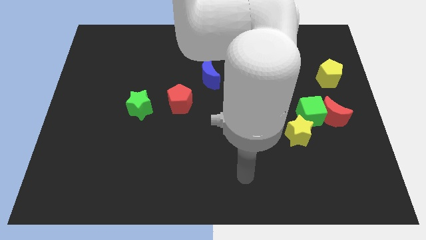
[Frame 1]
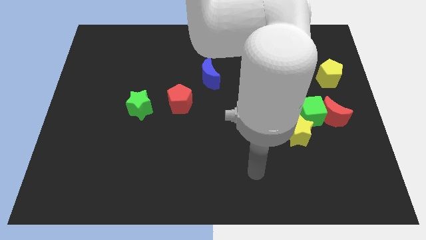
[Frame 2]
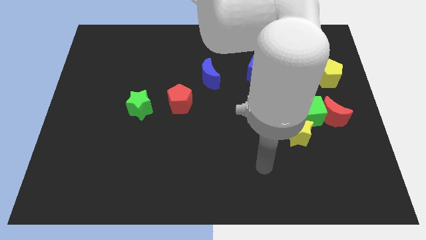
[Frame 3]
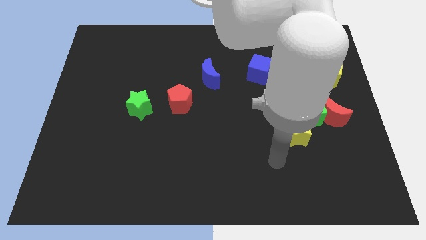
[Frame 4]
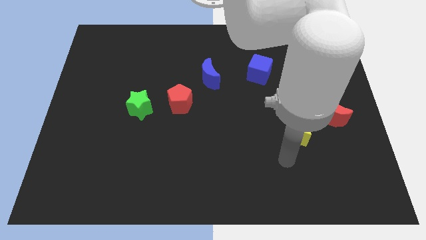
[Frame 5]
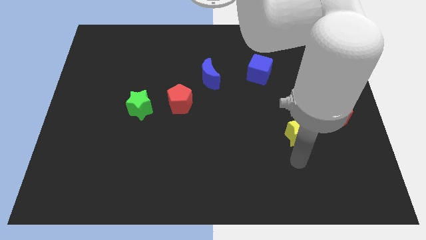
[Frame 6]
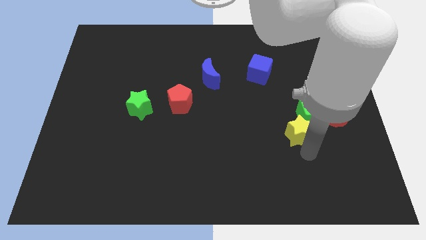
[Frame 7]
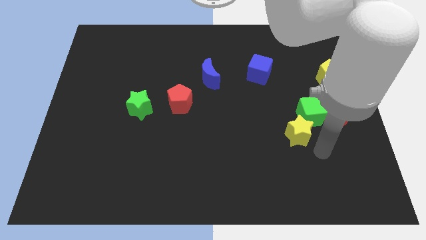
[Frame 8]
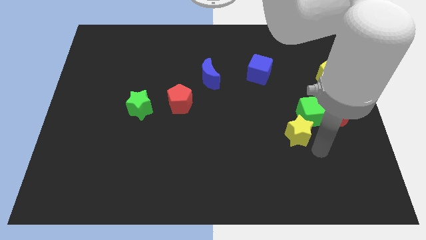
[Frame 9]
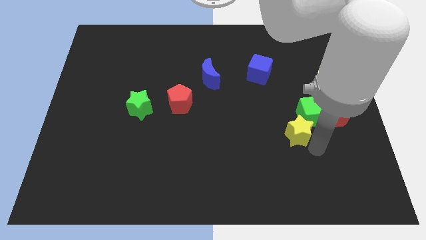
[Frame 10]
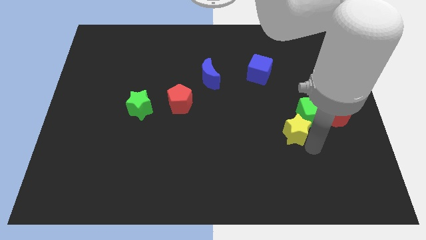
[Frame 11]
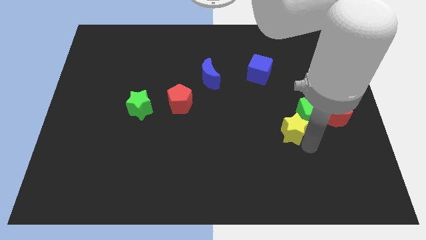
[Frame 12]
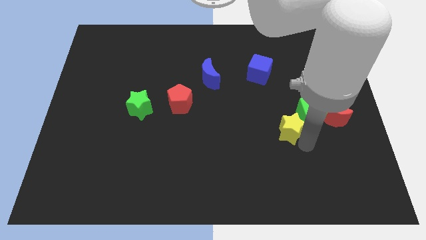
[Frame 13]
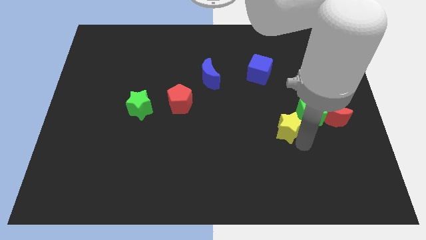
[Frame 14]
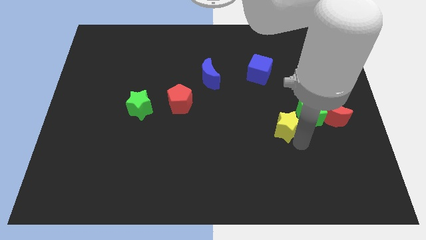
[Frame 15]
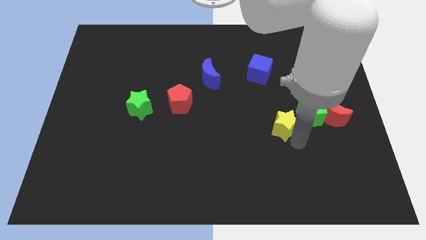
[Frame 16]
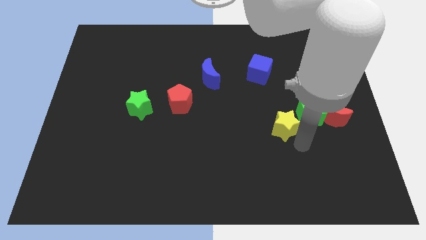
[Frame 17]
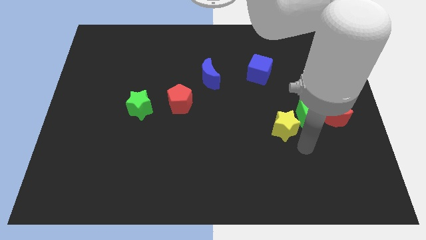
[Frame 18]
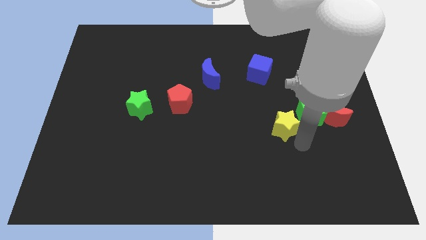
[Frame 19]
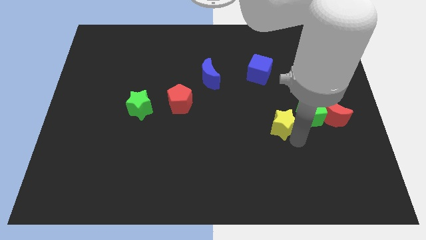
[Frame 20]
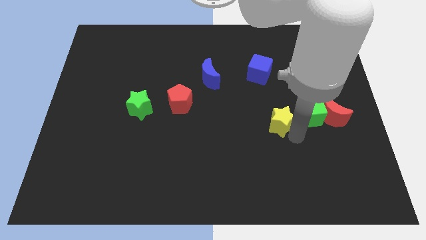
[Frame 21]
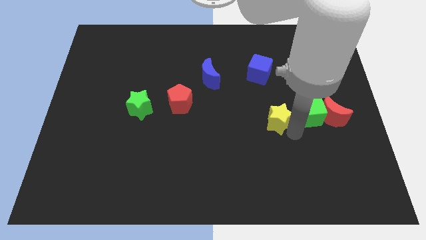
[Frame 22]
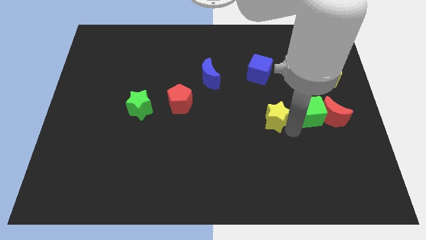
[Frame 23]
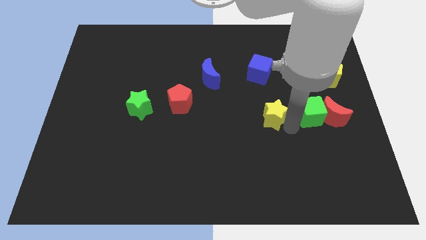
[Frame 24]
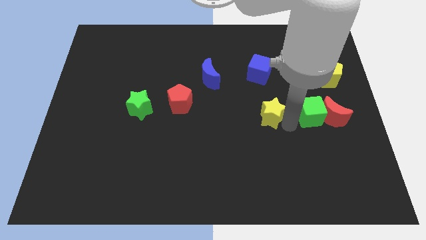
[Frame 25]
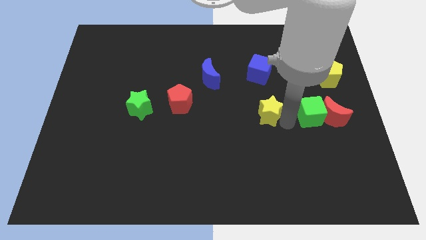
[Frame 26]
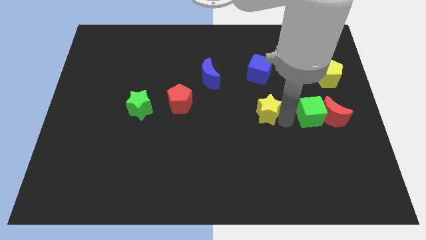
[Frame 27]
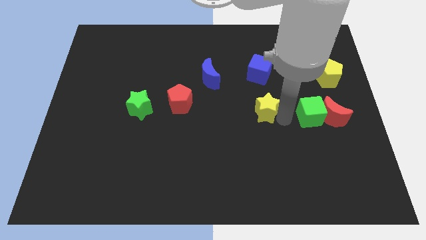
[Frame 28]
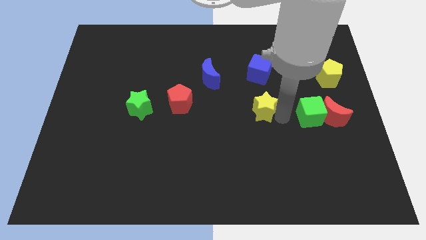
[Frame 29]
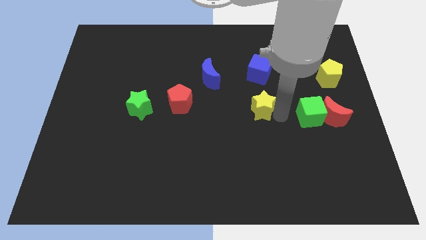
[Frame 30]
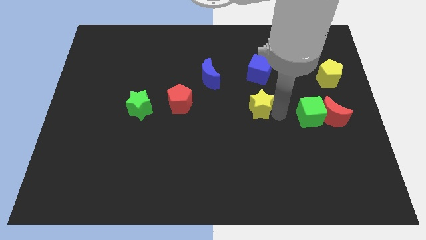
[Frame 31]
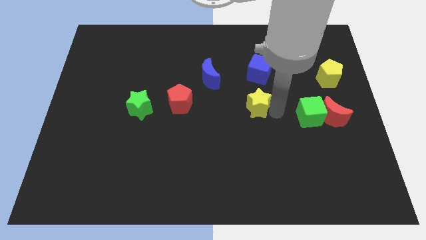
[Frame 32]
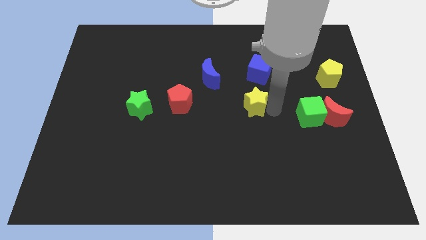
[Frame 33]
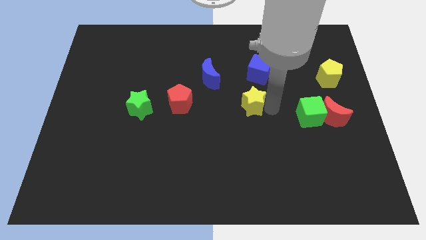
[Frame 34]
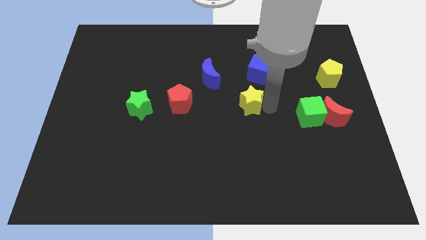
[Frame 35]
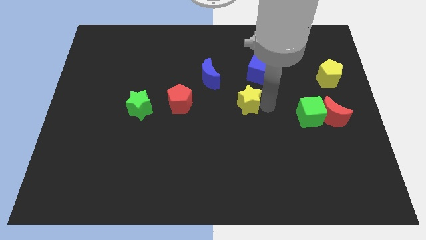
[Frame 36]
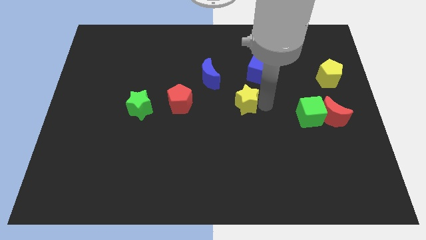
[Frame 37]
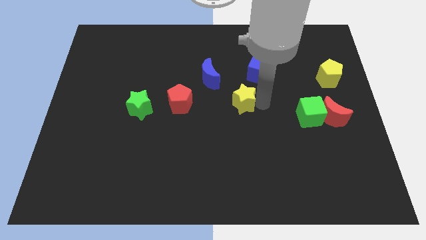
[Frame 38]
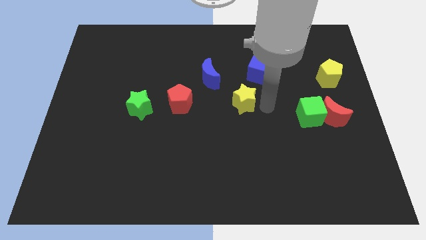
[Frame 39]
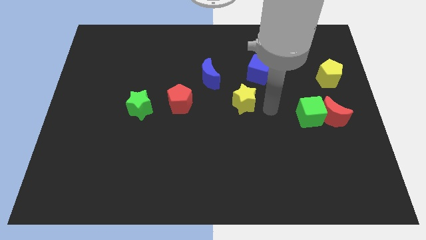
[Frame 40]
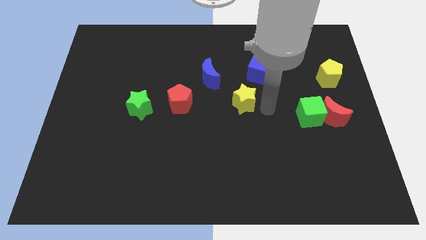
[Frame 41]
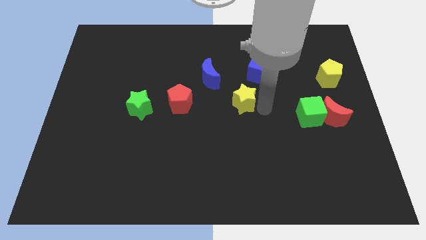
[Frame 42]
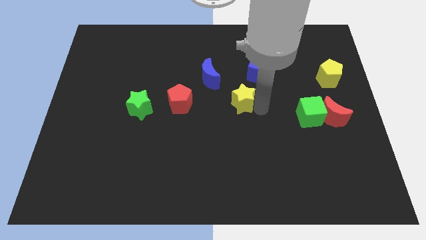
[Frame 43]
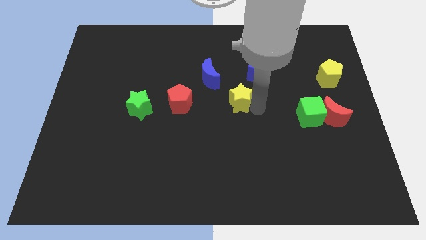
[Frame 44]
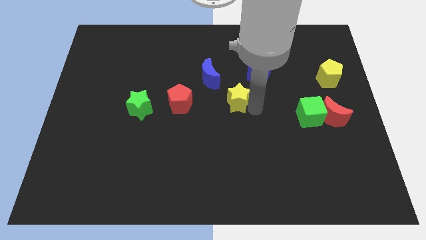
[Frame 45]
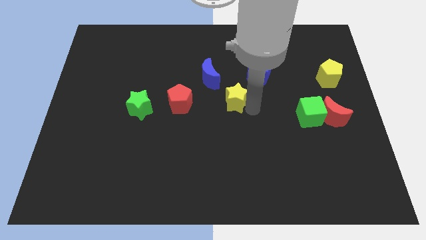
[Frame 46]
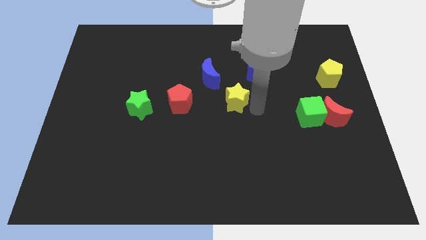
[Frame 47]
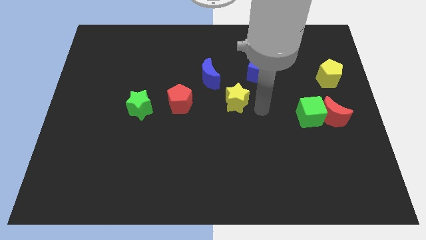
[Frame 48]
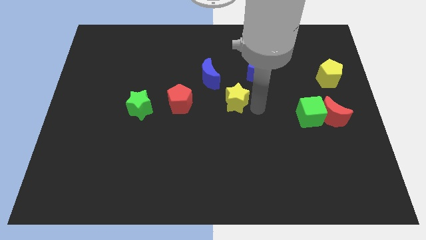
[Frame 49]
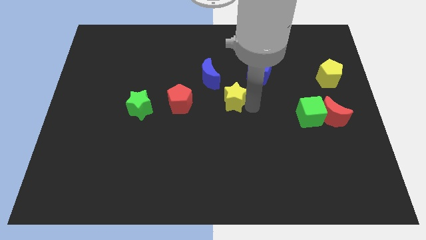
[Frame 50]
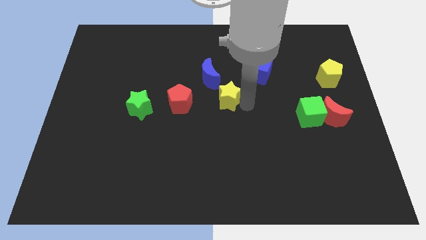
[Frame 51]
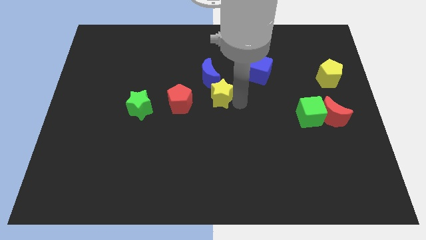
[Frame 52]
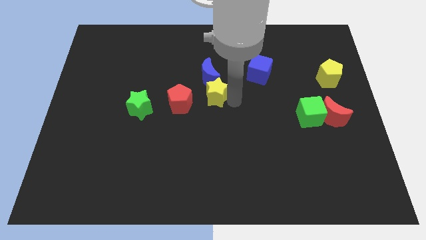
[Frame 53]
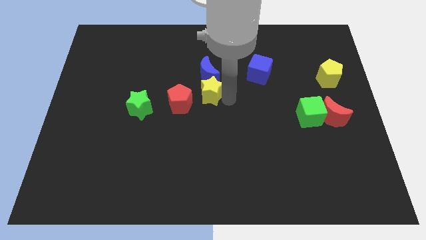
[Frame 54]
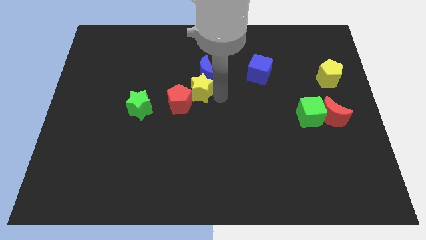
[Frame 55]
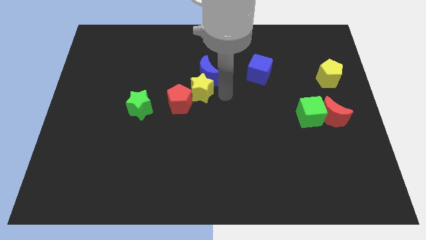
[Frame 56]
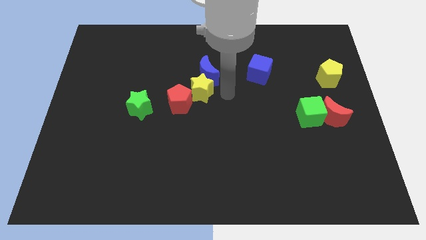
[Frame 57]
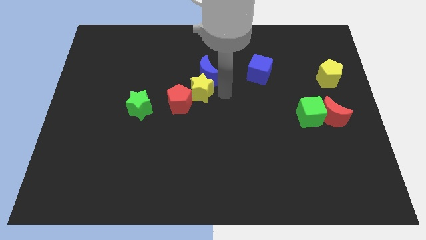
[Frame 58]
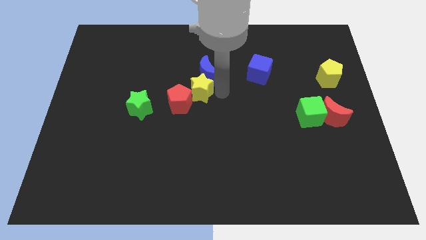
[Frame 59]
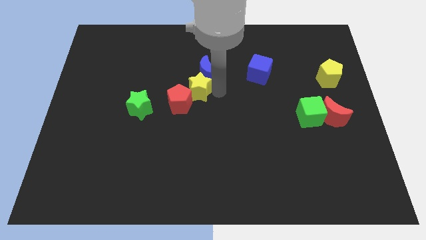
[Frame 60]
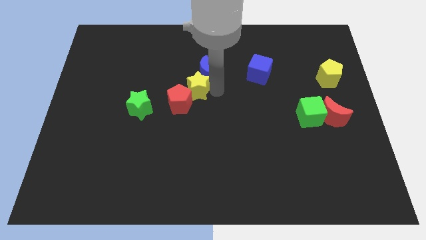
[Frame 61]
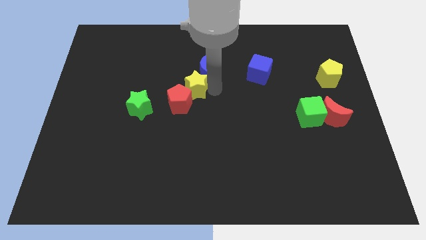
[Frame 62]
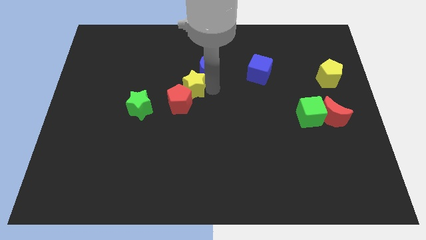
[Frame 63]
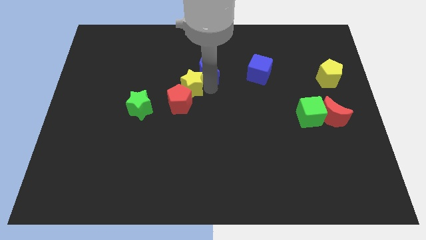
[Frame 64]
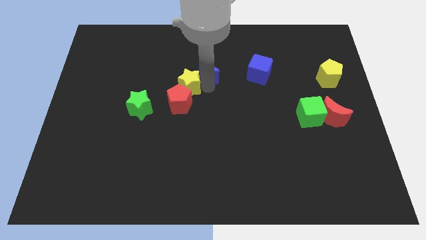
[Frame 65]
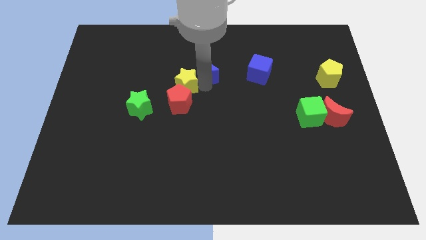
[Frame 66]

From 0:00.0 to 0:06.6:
slide the yellow star diagonally up and to the right of the green star

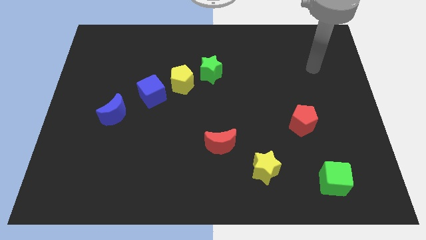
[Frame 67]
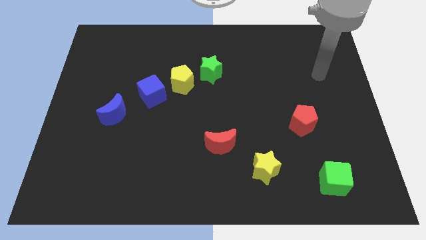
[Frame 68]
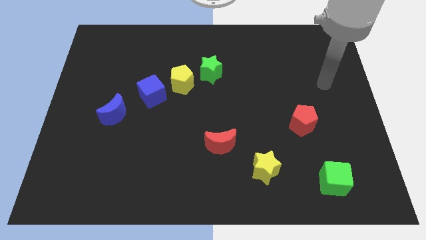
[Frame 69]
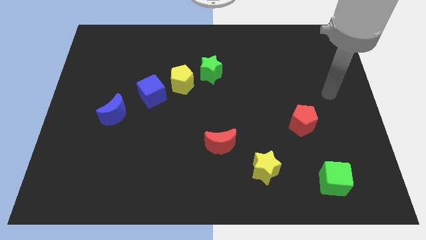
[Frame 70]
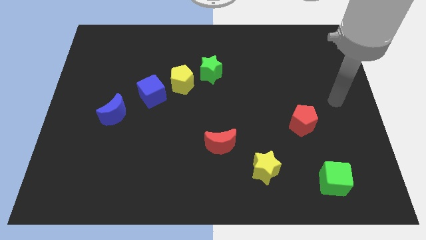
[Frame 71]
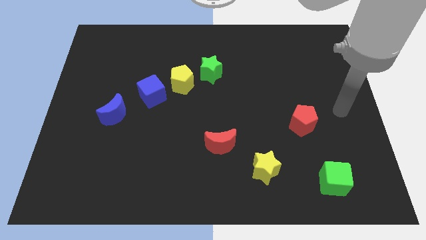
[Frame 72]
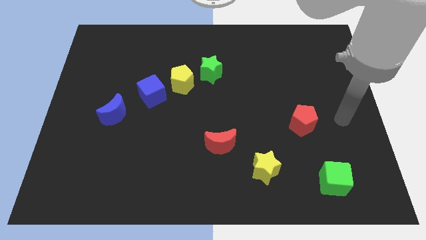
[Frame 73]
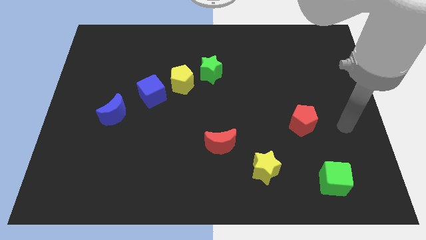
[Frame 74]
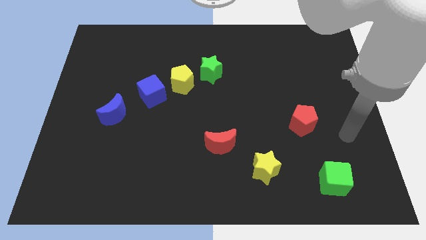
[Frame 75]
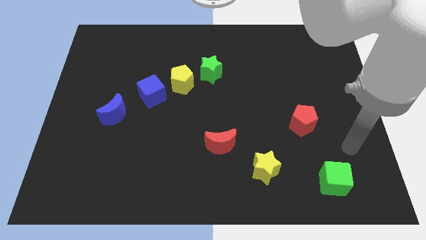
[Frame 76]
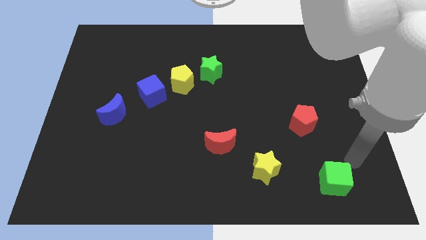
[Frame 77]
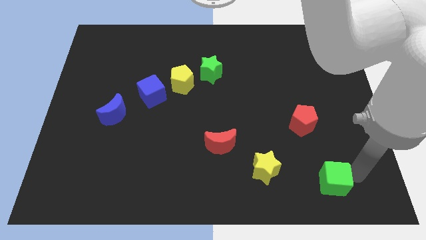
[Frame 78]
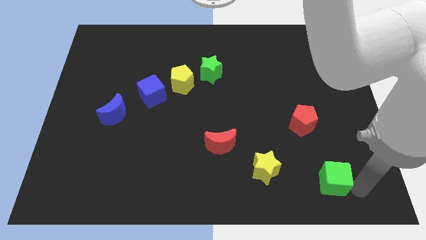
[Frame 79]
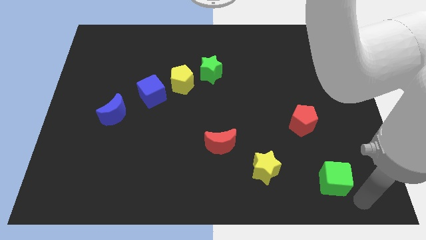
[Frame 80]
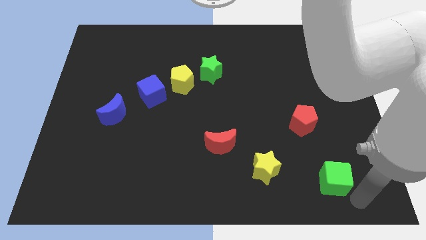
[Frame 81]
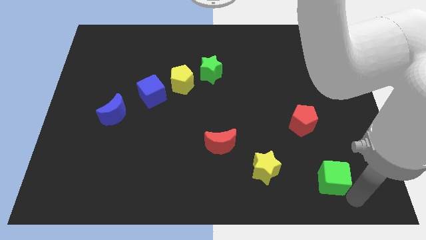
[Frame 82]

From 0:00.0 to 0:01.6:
move the green cube below the red pentagon

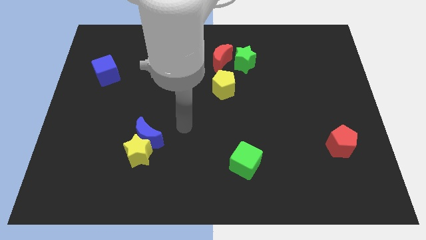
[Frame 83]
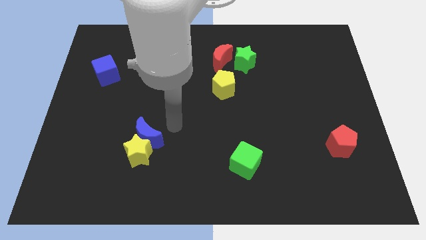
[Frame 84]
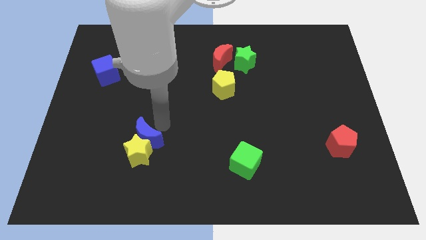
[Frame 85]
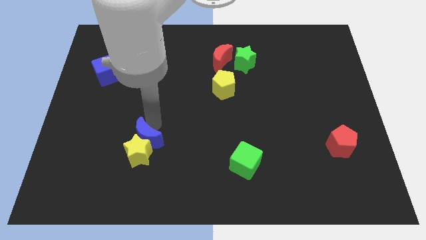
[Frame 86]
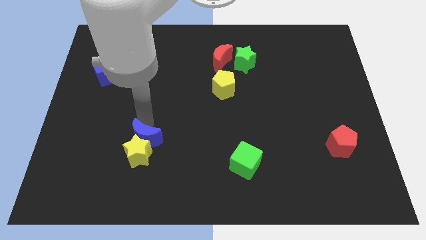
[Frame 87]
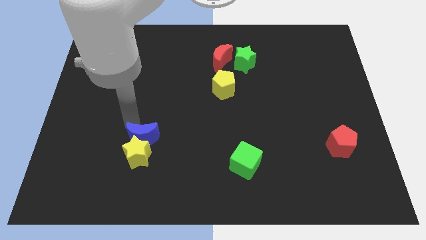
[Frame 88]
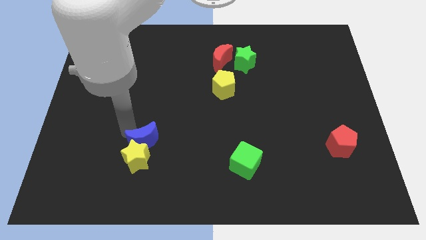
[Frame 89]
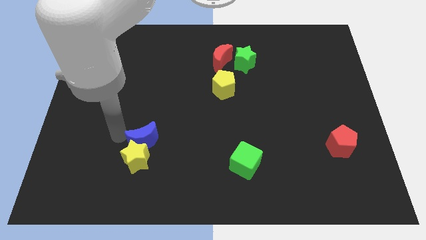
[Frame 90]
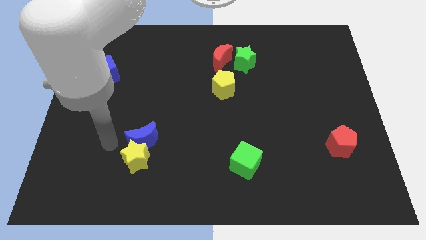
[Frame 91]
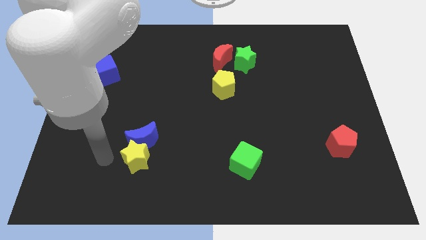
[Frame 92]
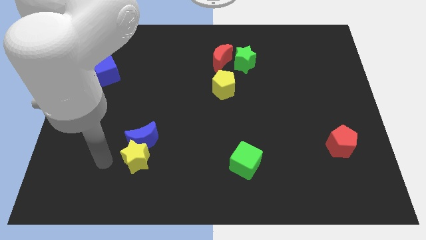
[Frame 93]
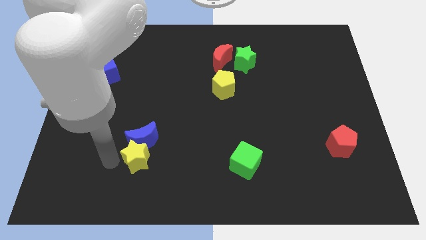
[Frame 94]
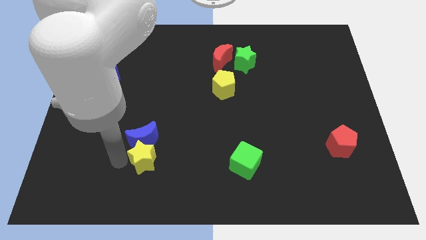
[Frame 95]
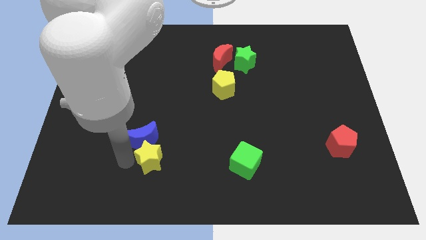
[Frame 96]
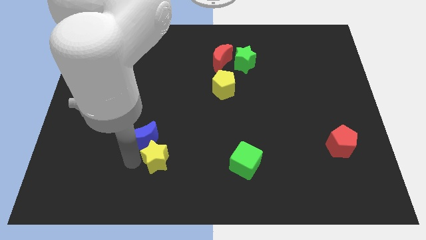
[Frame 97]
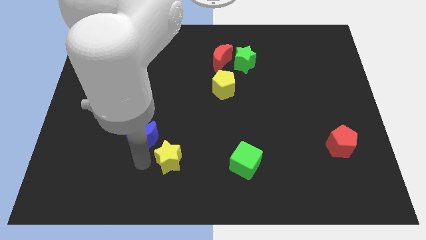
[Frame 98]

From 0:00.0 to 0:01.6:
move the yellow star to the right of the blue moon
